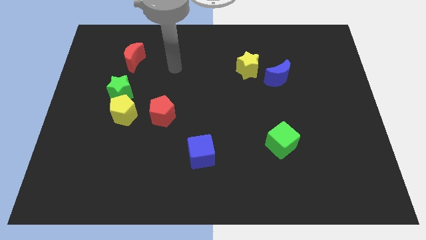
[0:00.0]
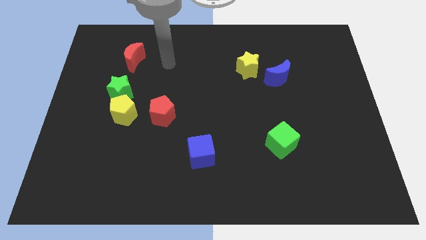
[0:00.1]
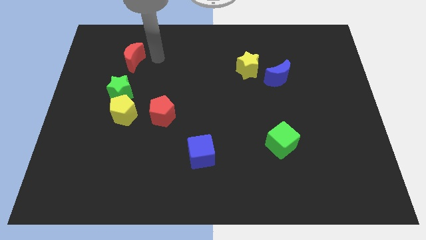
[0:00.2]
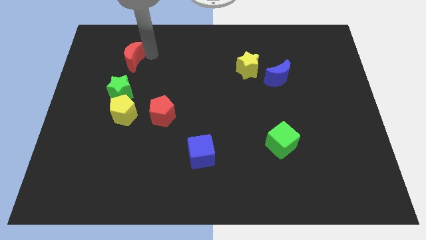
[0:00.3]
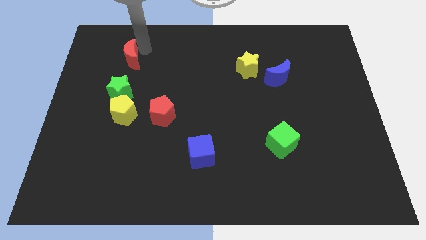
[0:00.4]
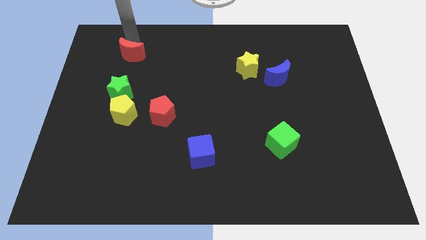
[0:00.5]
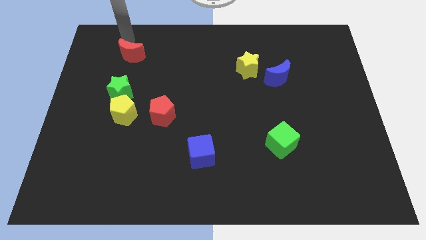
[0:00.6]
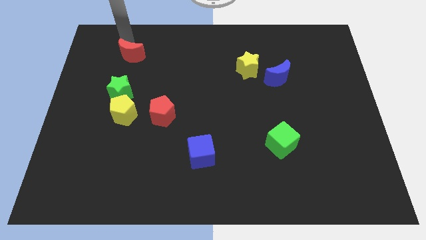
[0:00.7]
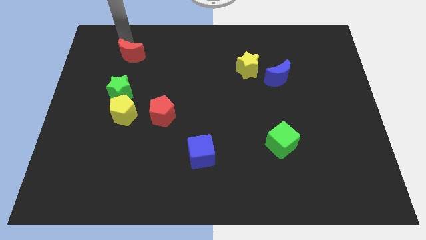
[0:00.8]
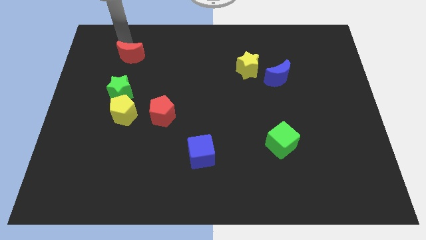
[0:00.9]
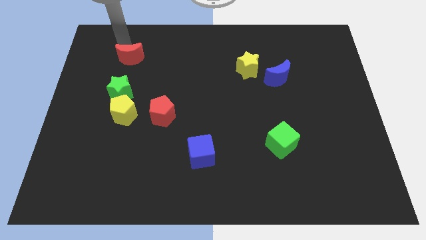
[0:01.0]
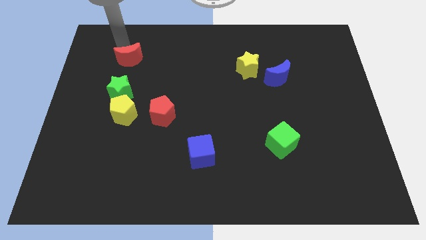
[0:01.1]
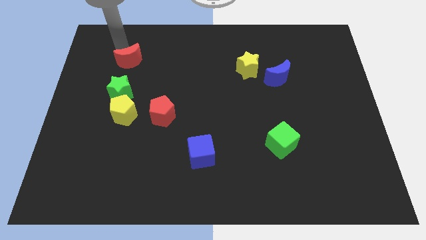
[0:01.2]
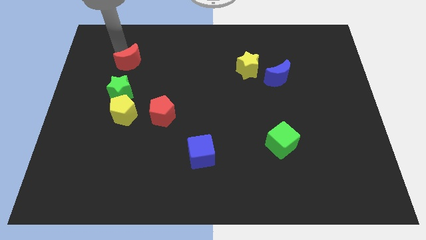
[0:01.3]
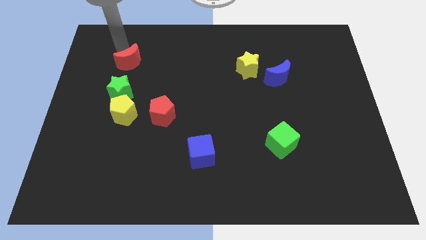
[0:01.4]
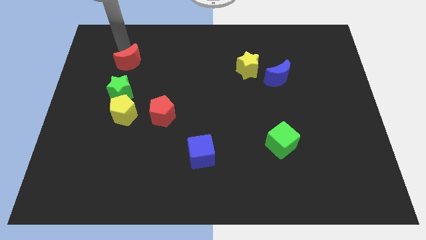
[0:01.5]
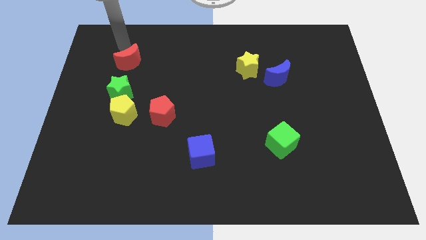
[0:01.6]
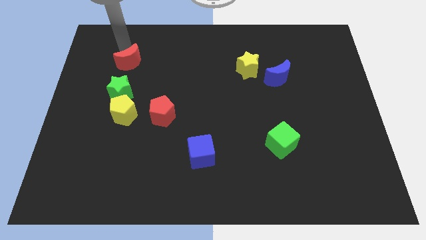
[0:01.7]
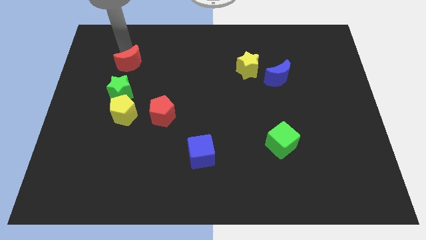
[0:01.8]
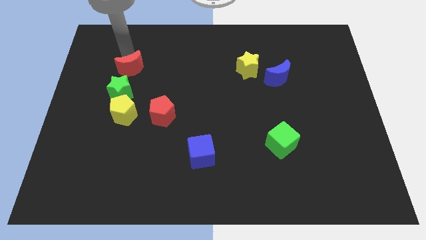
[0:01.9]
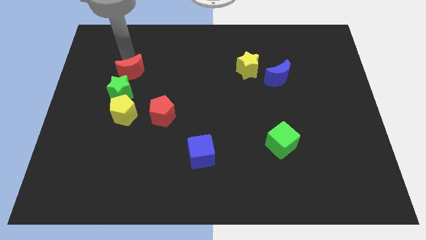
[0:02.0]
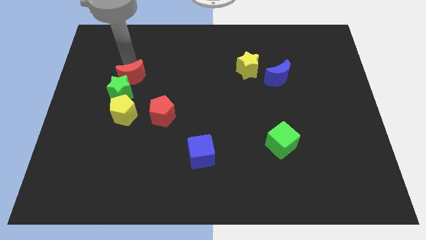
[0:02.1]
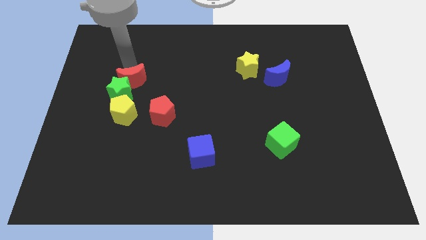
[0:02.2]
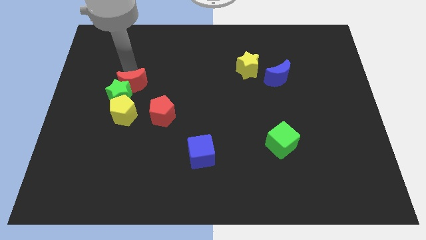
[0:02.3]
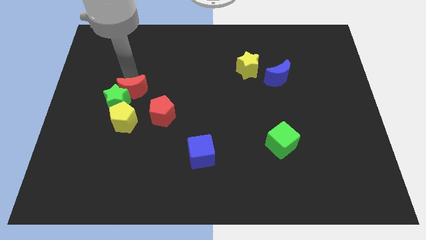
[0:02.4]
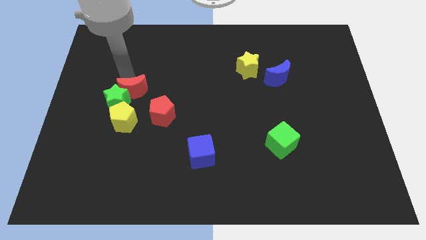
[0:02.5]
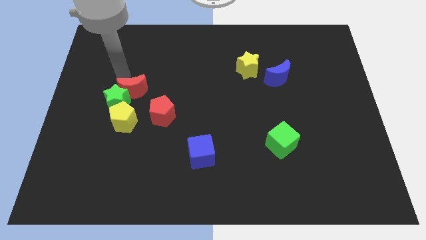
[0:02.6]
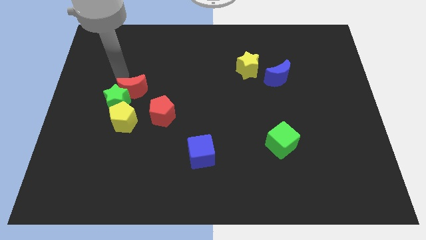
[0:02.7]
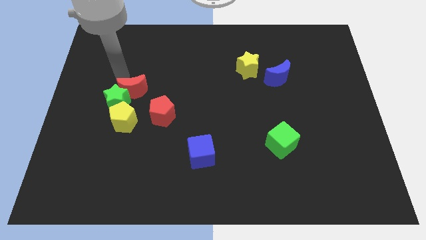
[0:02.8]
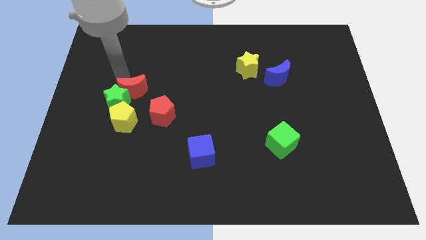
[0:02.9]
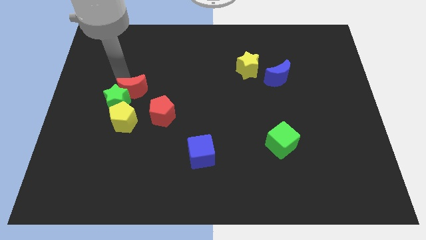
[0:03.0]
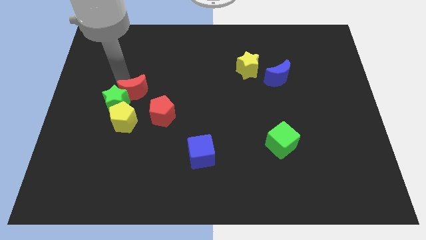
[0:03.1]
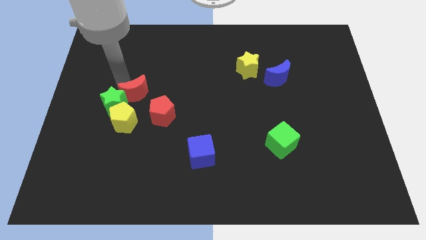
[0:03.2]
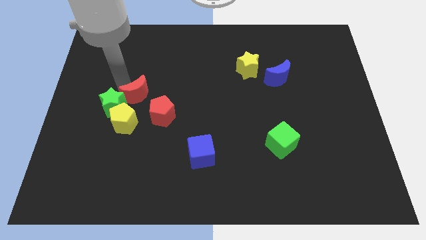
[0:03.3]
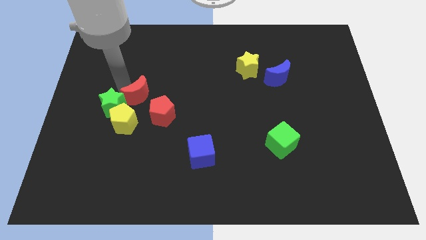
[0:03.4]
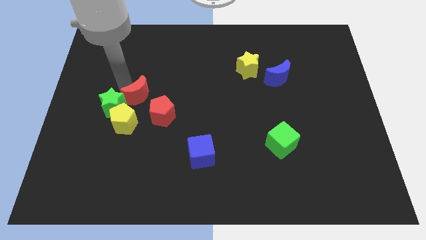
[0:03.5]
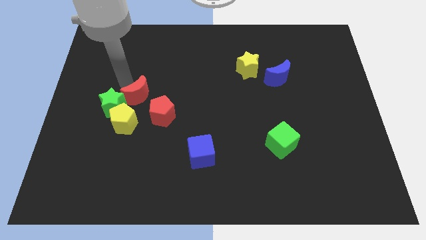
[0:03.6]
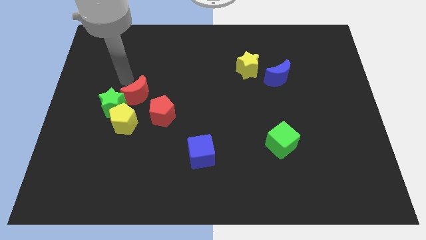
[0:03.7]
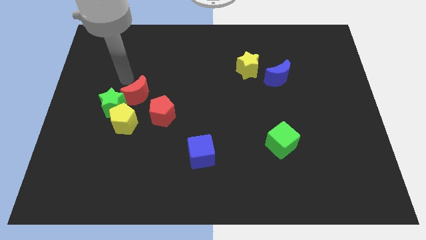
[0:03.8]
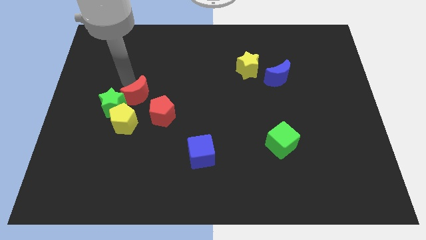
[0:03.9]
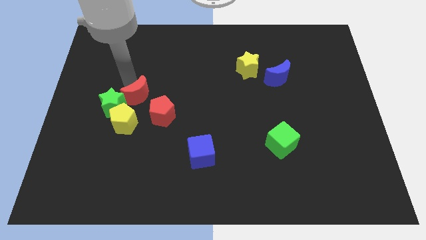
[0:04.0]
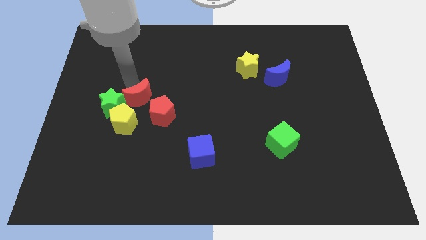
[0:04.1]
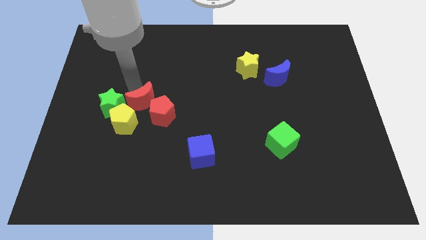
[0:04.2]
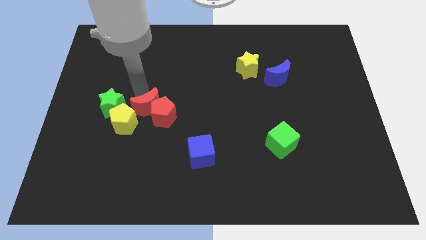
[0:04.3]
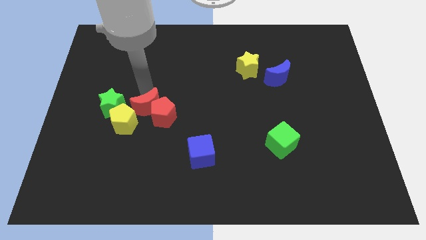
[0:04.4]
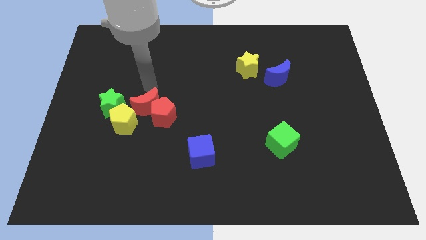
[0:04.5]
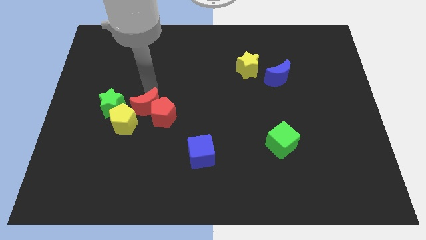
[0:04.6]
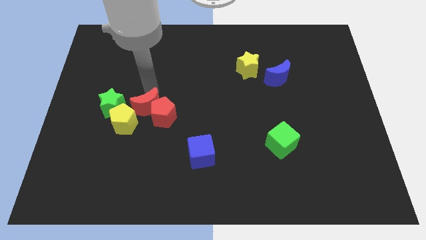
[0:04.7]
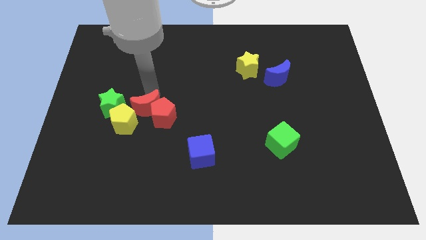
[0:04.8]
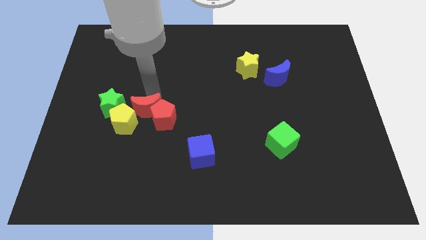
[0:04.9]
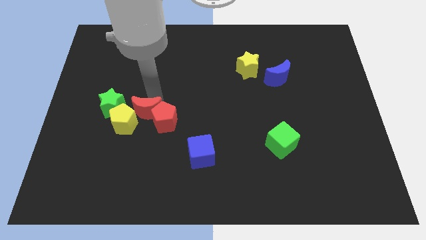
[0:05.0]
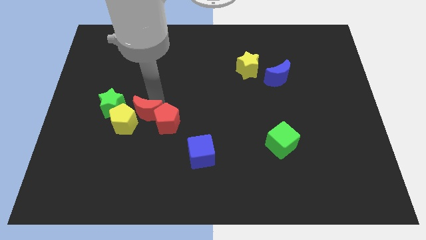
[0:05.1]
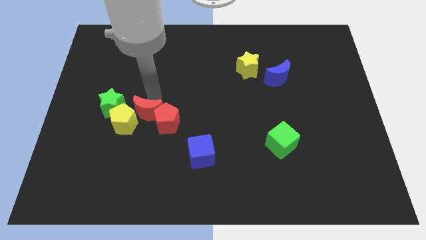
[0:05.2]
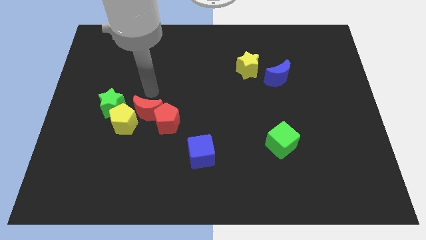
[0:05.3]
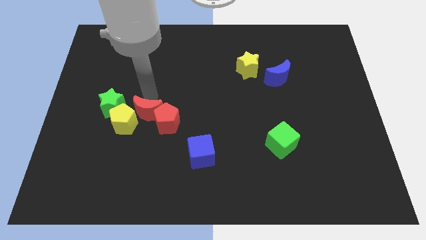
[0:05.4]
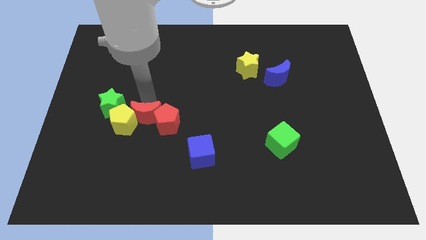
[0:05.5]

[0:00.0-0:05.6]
slide the red moon to the bottom right of the yellow pentagon
